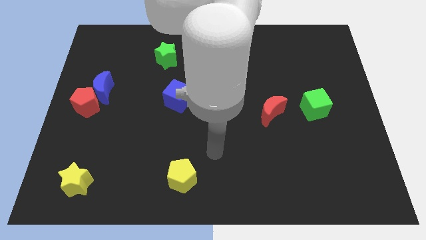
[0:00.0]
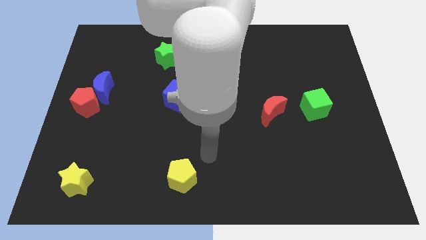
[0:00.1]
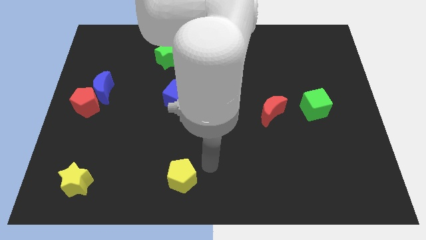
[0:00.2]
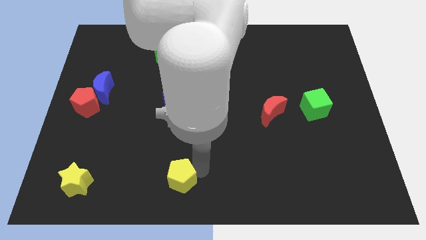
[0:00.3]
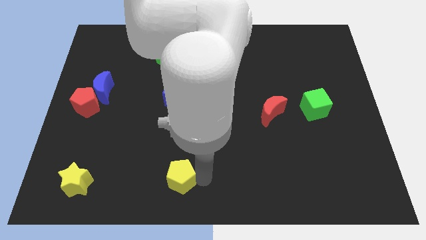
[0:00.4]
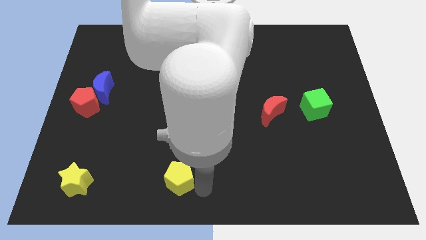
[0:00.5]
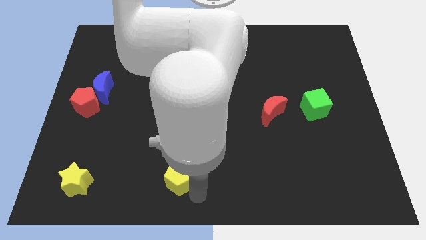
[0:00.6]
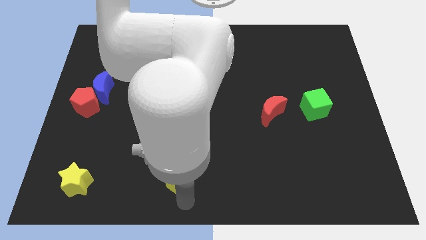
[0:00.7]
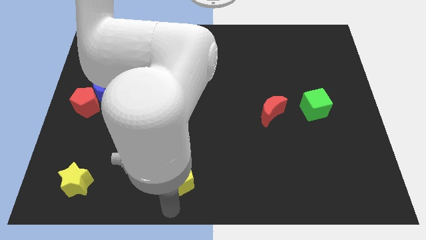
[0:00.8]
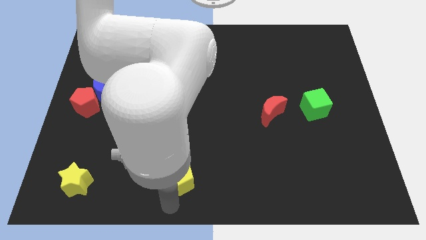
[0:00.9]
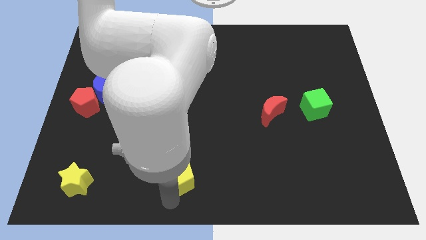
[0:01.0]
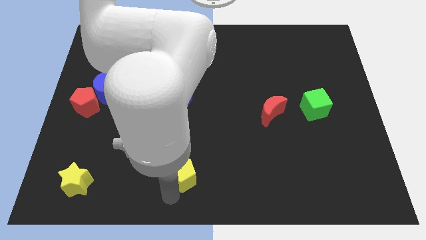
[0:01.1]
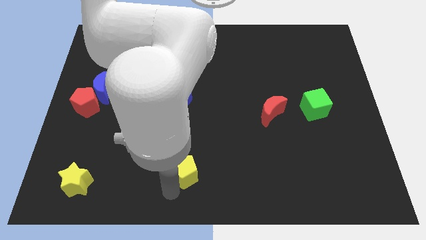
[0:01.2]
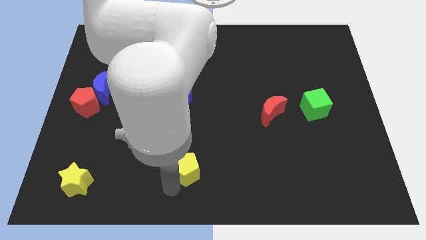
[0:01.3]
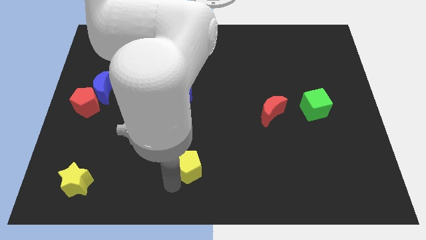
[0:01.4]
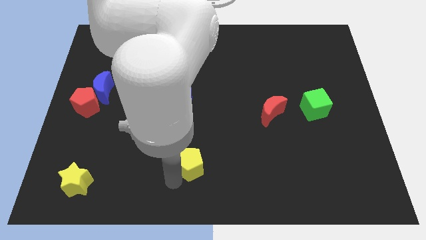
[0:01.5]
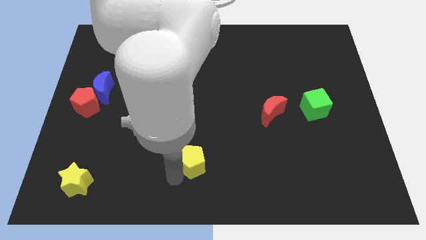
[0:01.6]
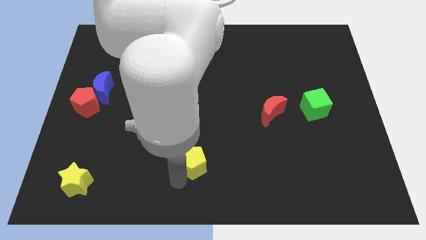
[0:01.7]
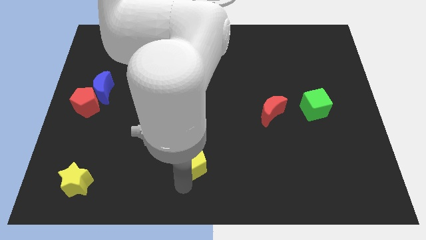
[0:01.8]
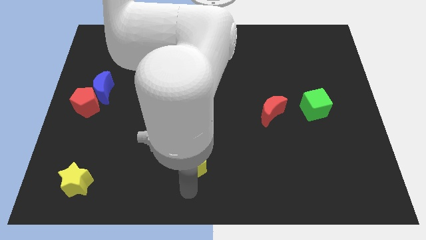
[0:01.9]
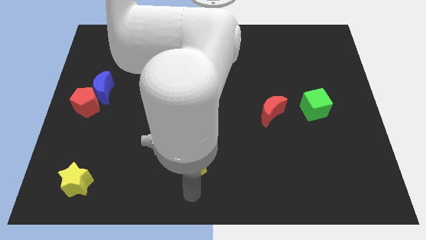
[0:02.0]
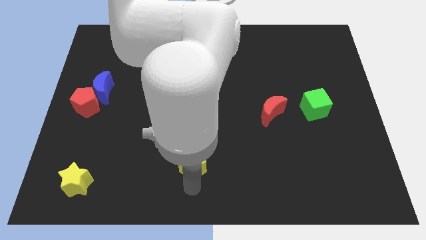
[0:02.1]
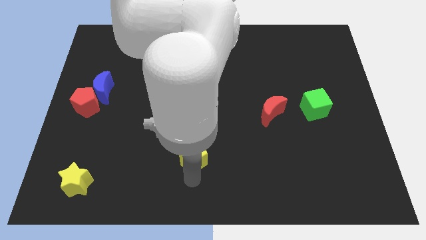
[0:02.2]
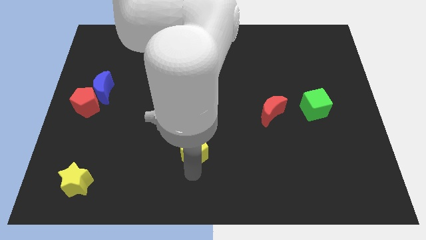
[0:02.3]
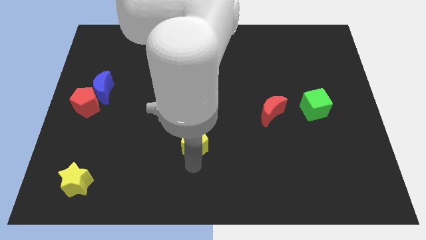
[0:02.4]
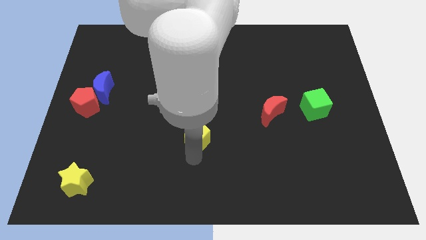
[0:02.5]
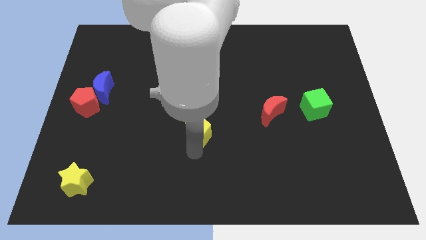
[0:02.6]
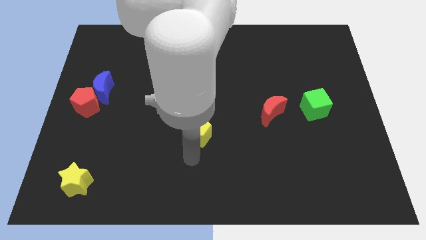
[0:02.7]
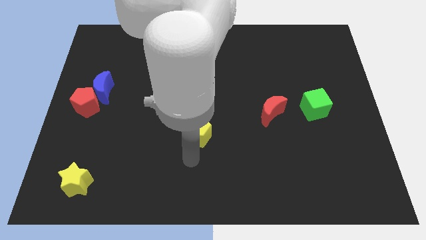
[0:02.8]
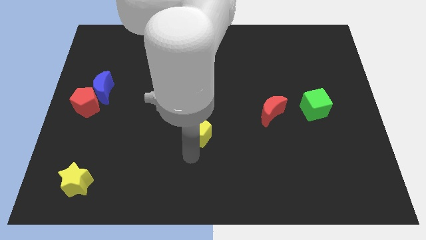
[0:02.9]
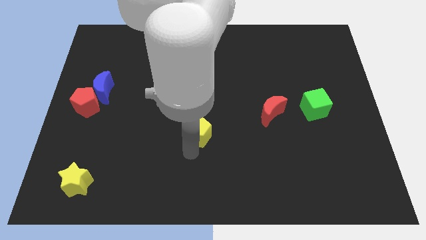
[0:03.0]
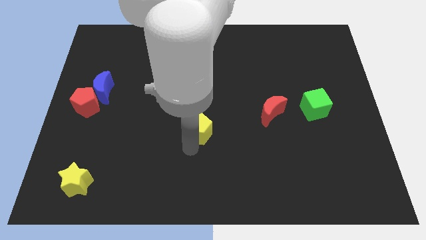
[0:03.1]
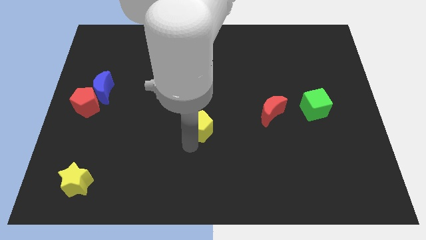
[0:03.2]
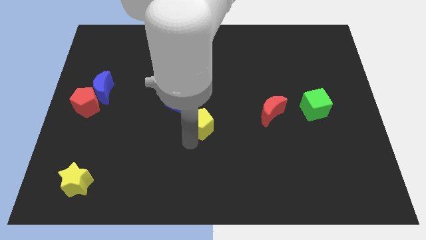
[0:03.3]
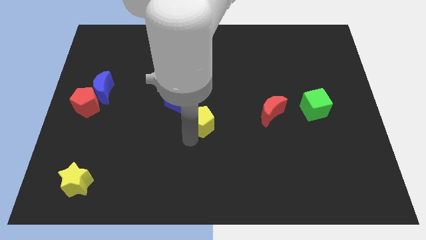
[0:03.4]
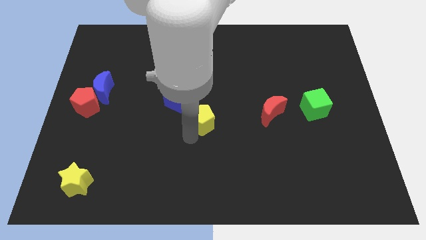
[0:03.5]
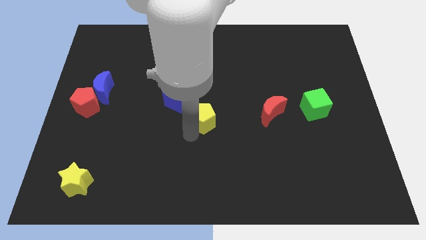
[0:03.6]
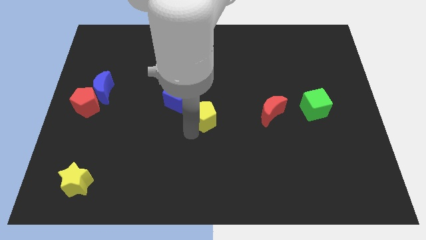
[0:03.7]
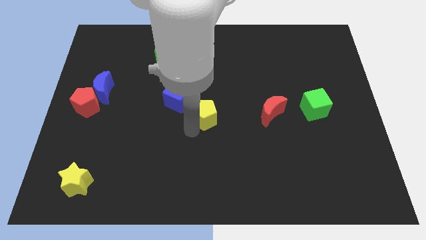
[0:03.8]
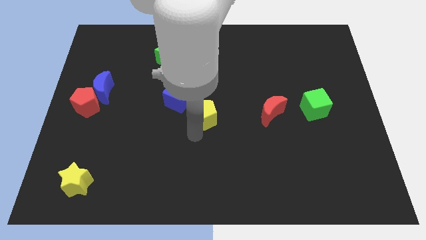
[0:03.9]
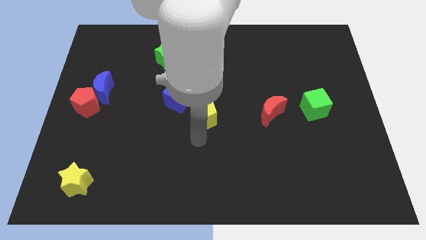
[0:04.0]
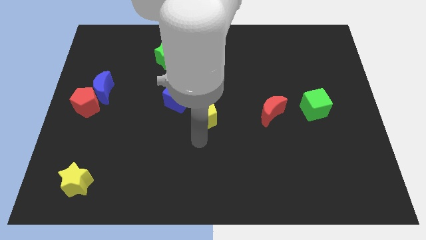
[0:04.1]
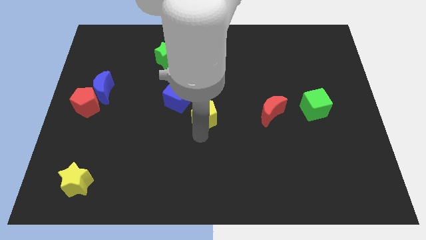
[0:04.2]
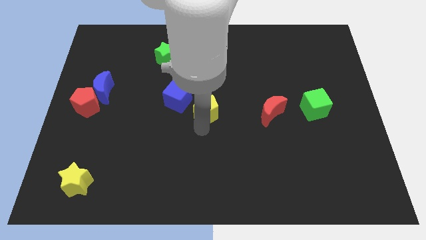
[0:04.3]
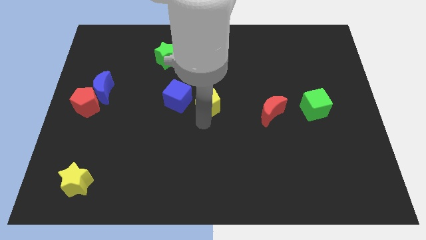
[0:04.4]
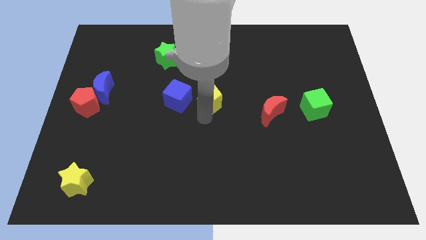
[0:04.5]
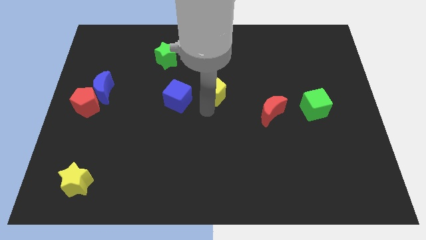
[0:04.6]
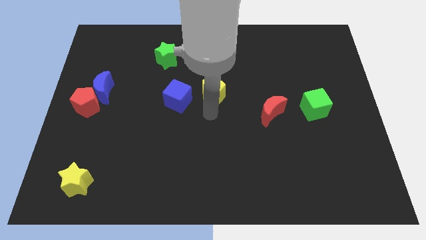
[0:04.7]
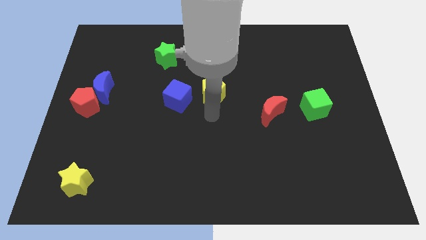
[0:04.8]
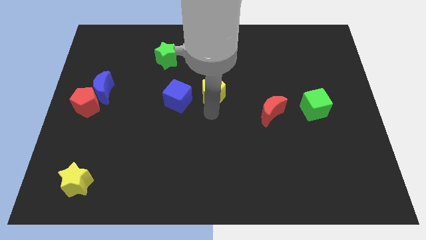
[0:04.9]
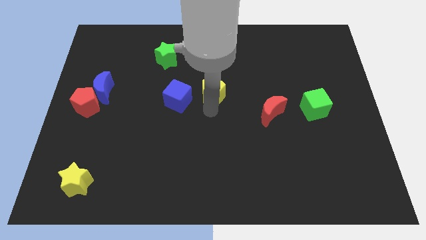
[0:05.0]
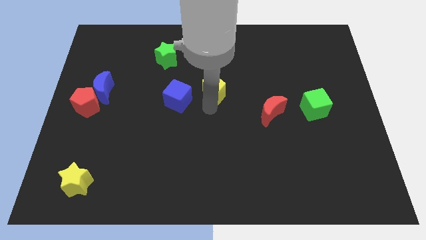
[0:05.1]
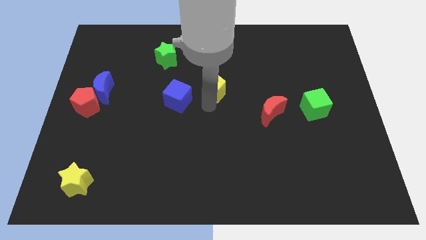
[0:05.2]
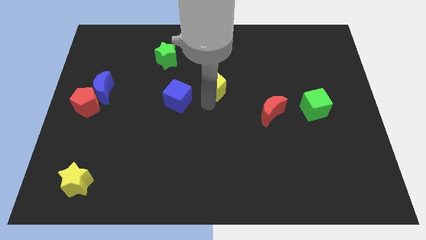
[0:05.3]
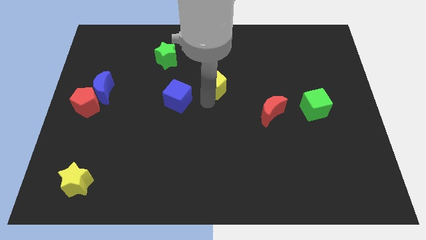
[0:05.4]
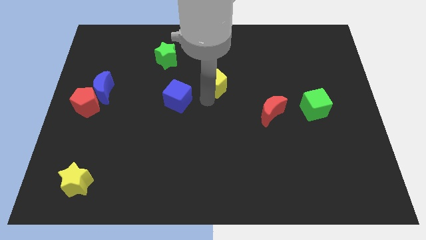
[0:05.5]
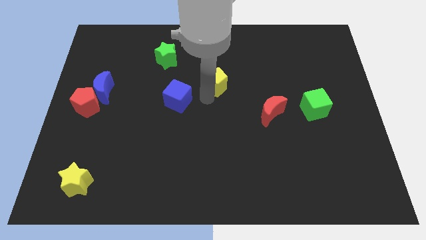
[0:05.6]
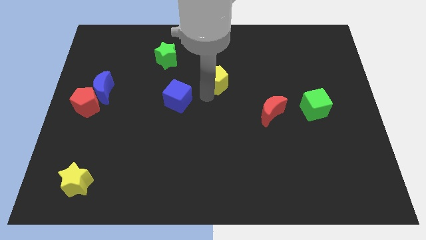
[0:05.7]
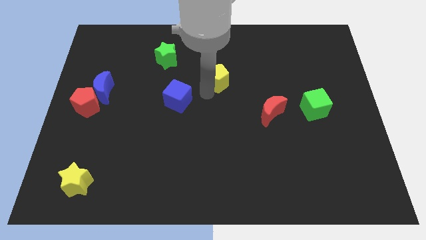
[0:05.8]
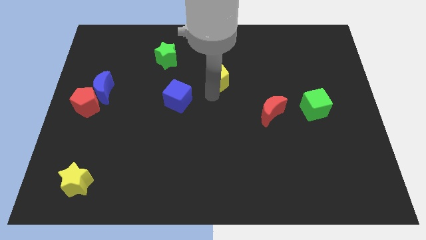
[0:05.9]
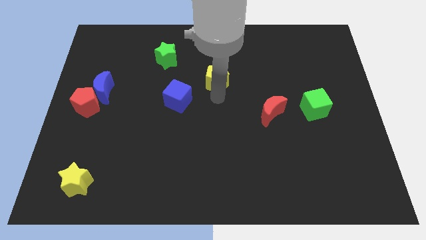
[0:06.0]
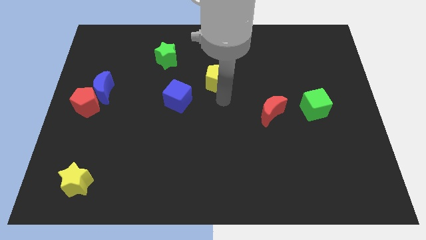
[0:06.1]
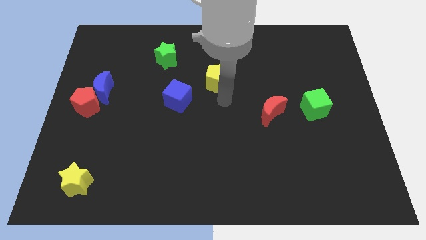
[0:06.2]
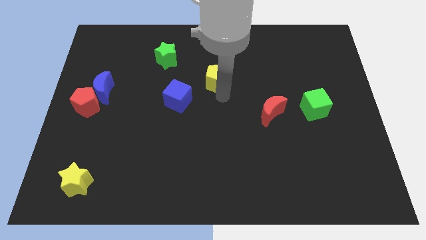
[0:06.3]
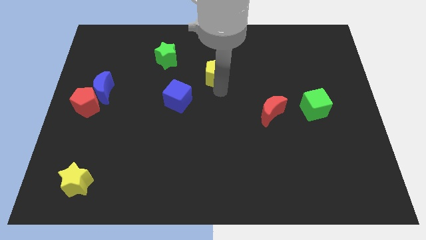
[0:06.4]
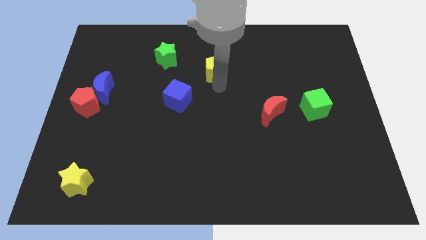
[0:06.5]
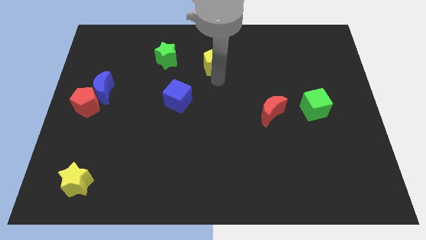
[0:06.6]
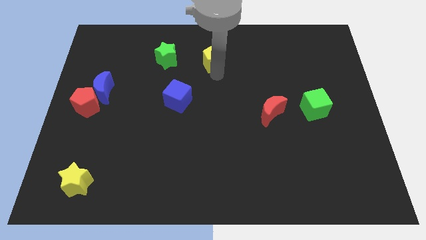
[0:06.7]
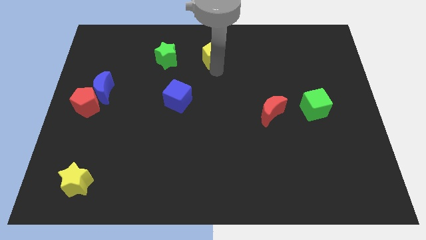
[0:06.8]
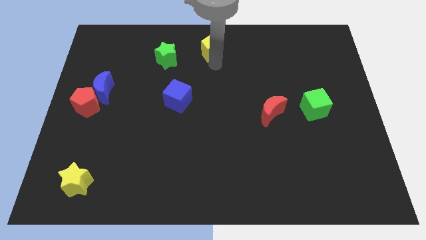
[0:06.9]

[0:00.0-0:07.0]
slide the yellow pentagon to the top
